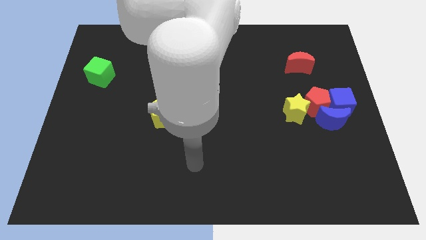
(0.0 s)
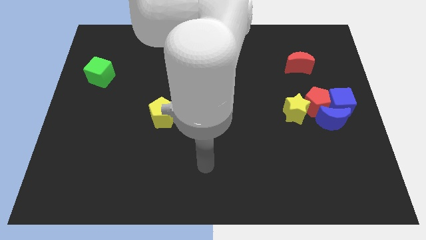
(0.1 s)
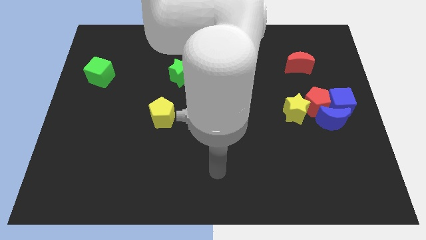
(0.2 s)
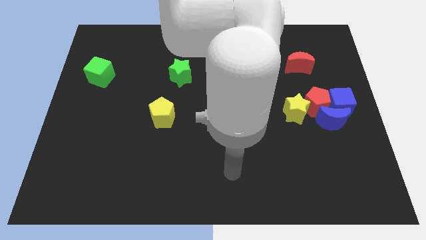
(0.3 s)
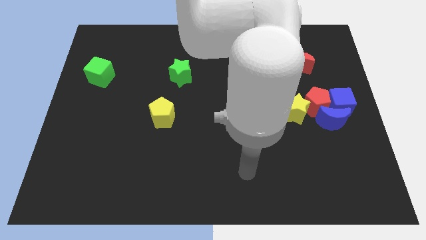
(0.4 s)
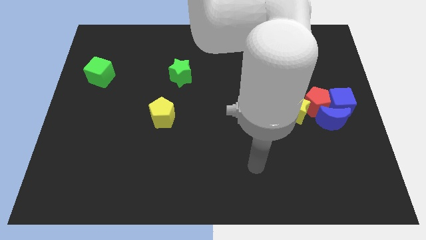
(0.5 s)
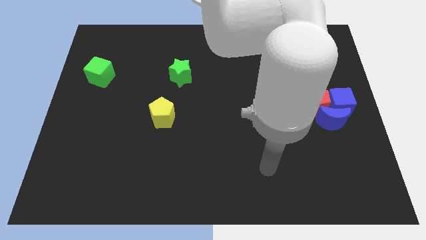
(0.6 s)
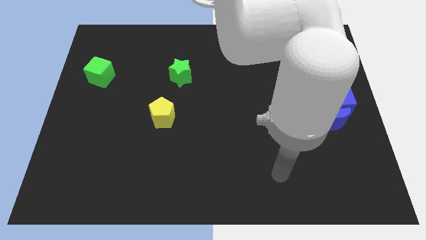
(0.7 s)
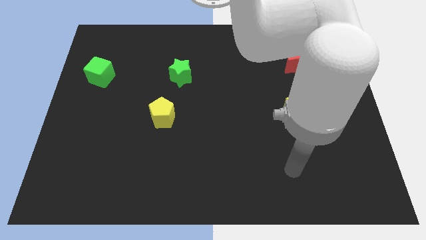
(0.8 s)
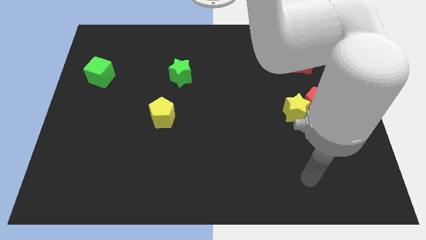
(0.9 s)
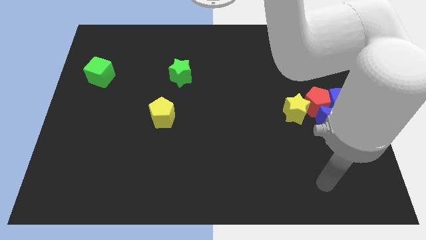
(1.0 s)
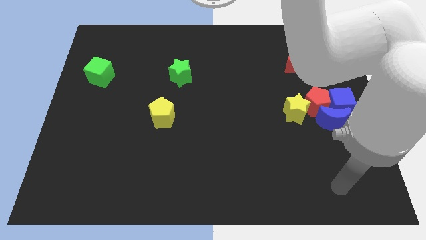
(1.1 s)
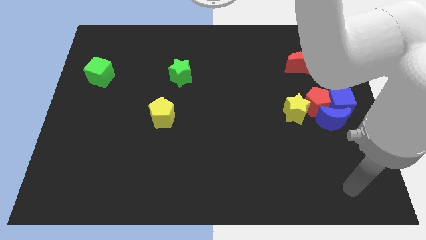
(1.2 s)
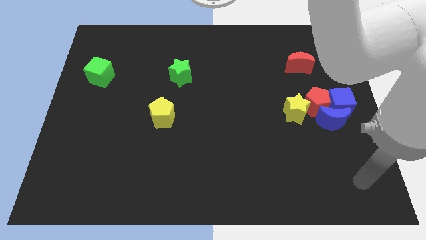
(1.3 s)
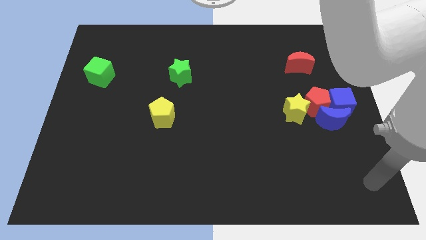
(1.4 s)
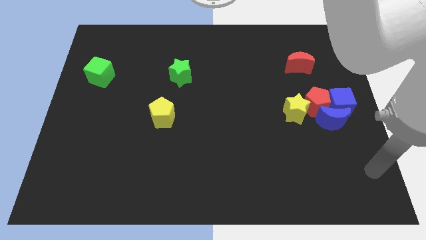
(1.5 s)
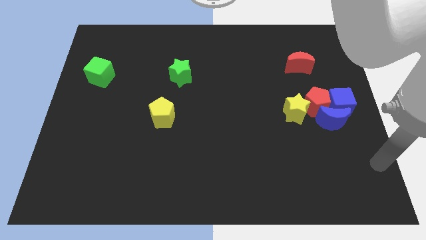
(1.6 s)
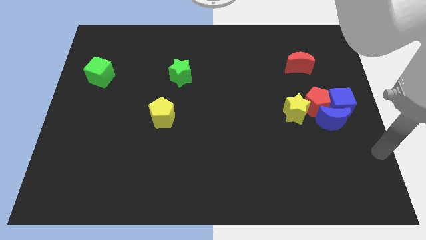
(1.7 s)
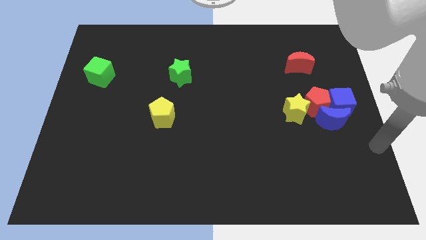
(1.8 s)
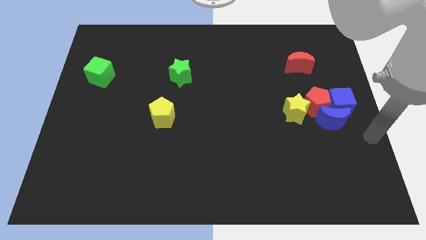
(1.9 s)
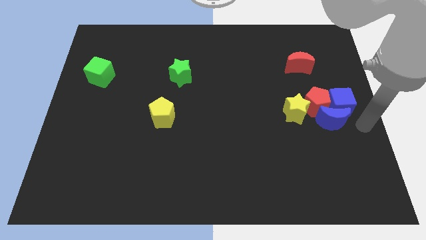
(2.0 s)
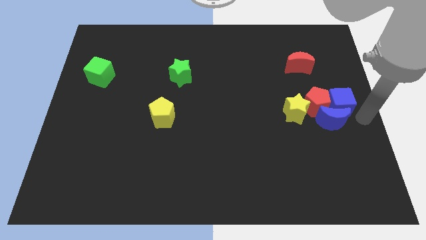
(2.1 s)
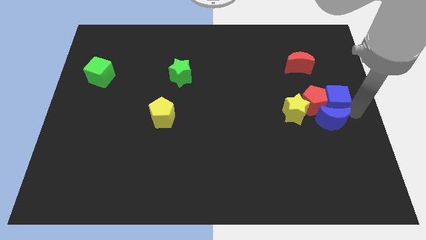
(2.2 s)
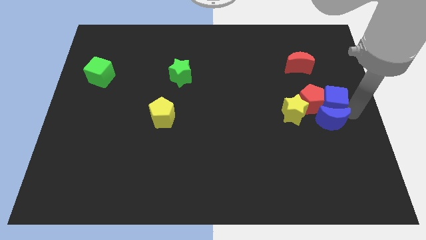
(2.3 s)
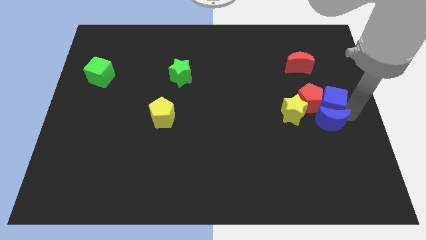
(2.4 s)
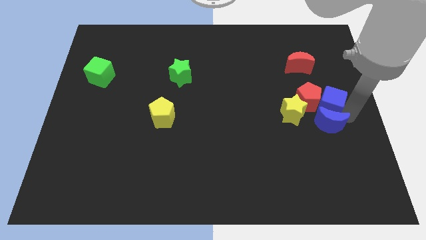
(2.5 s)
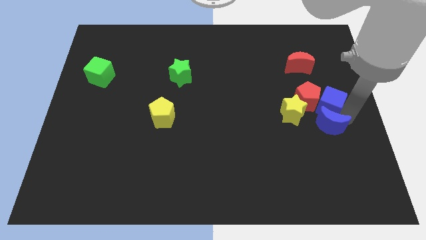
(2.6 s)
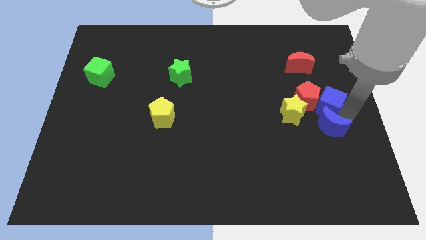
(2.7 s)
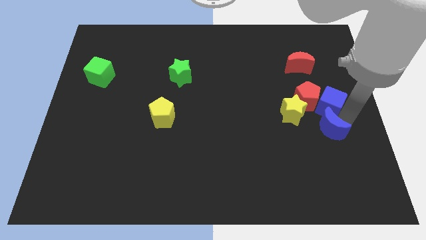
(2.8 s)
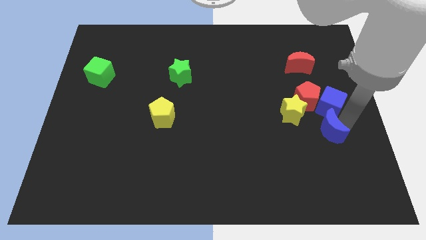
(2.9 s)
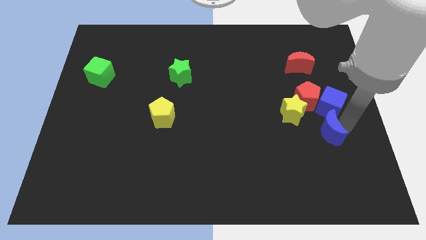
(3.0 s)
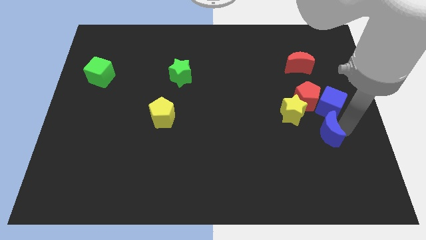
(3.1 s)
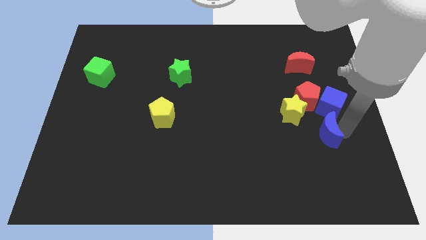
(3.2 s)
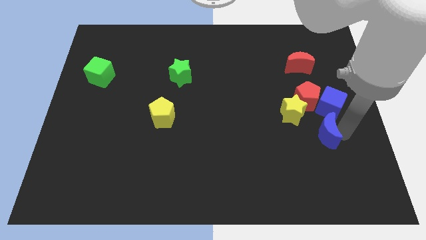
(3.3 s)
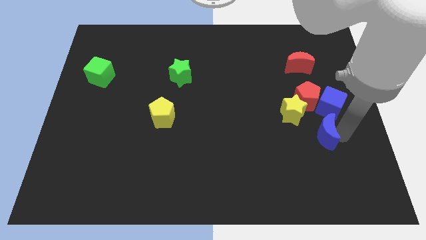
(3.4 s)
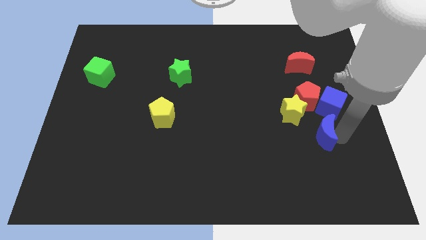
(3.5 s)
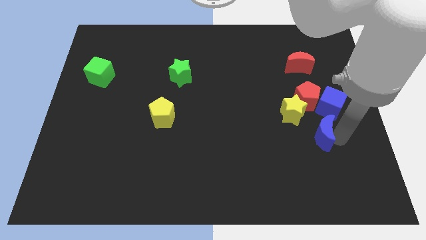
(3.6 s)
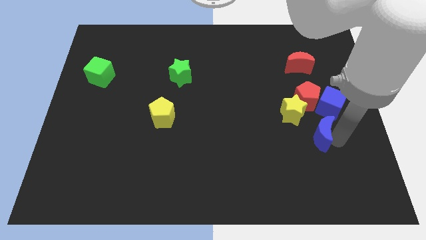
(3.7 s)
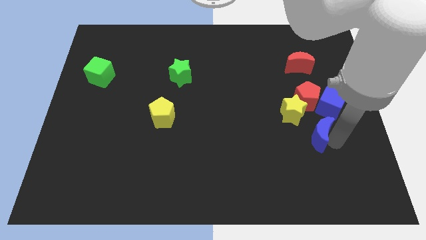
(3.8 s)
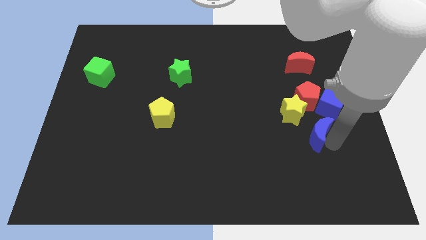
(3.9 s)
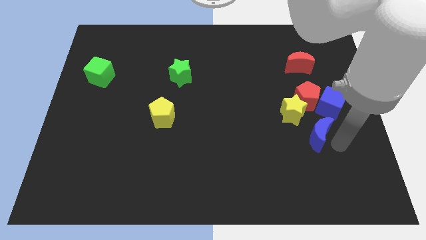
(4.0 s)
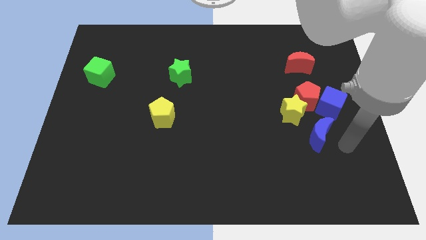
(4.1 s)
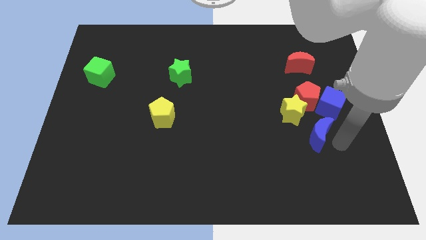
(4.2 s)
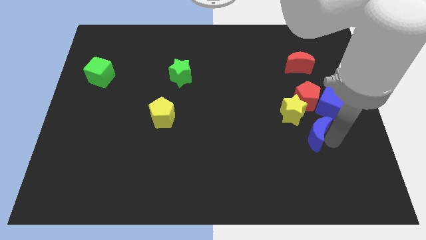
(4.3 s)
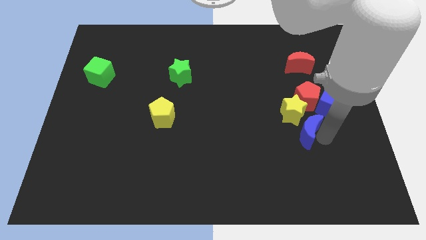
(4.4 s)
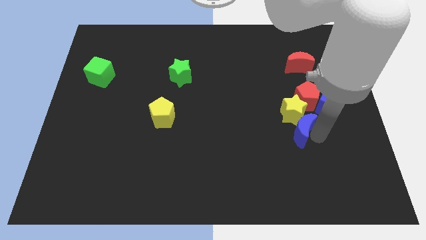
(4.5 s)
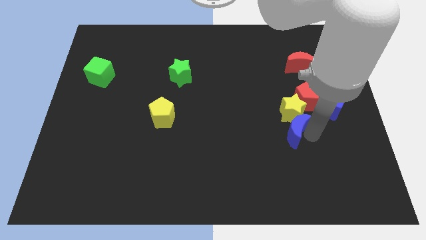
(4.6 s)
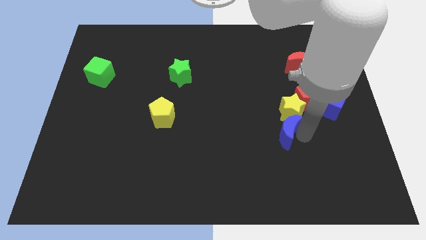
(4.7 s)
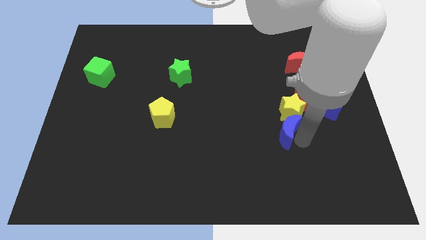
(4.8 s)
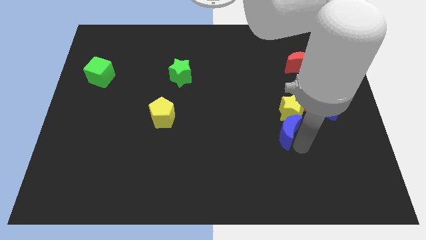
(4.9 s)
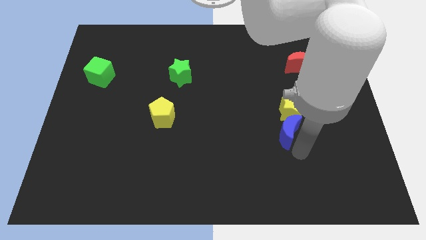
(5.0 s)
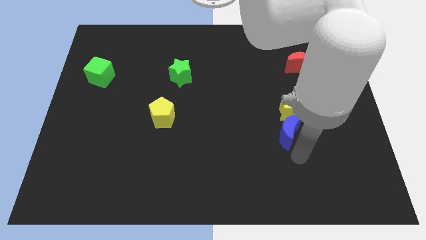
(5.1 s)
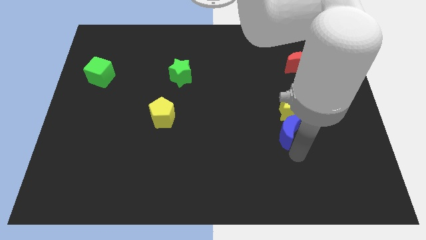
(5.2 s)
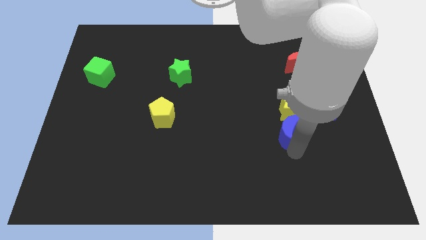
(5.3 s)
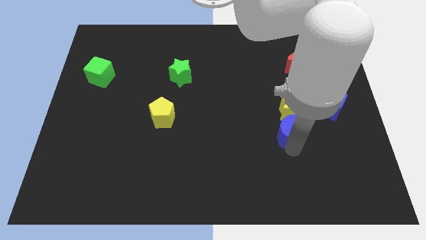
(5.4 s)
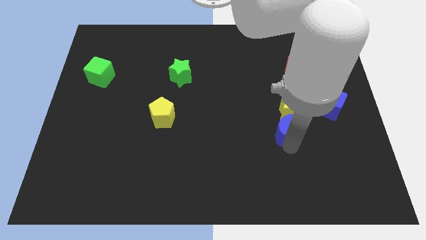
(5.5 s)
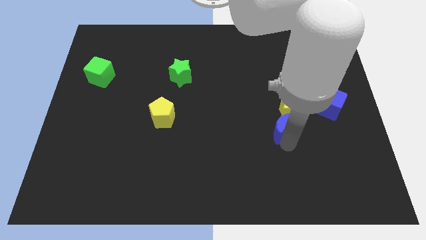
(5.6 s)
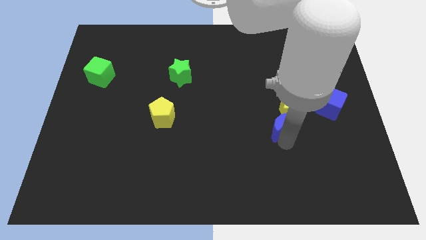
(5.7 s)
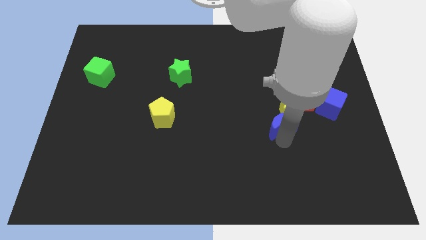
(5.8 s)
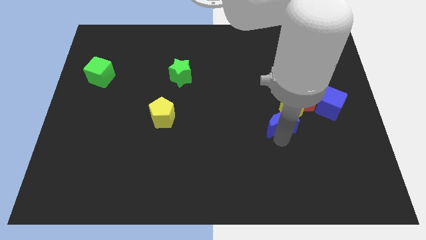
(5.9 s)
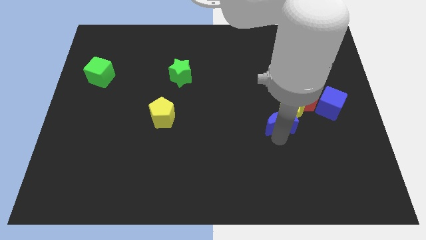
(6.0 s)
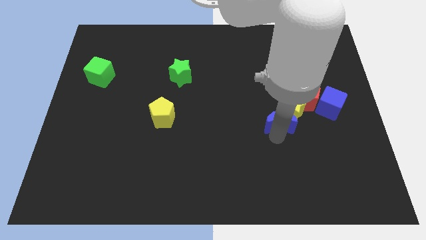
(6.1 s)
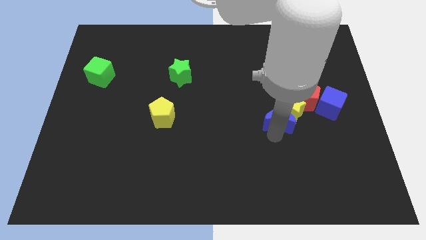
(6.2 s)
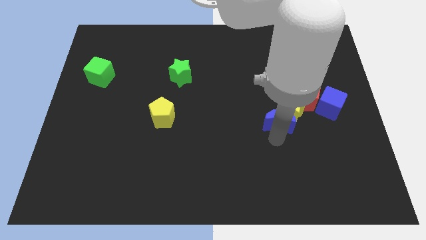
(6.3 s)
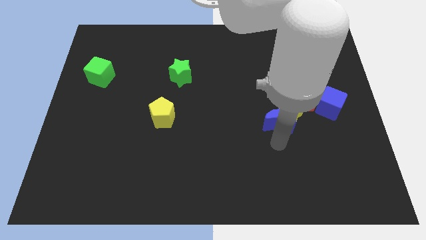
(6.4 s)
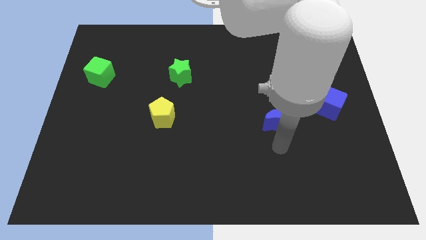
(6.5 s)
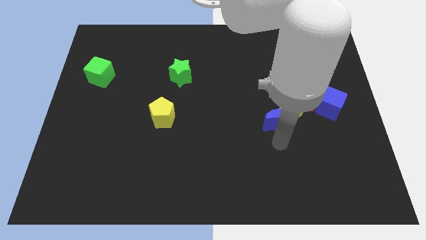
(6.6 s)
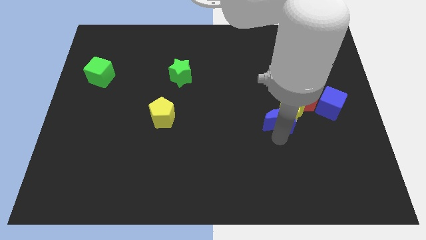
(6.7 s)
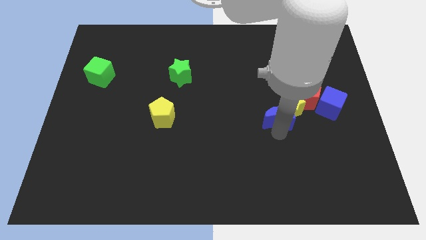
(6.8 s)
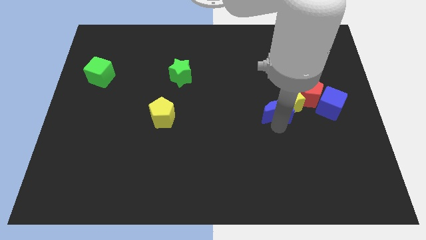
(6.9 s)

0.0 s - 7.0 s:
slide the blue moon diagonally upwards and to the left slightly

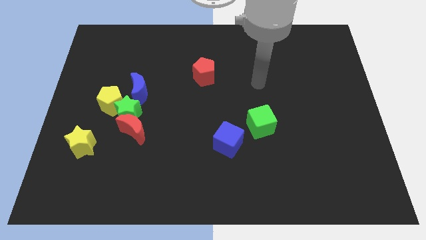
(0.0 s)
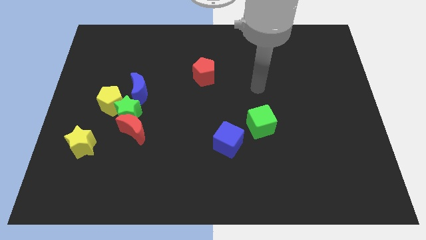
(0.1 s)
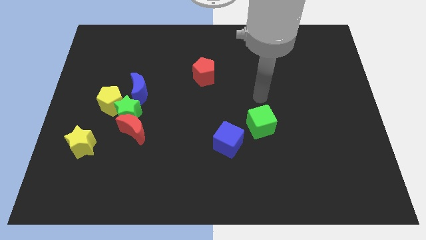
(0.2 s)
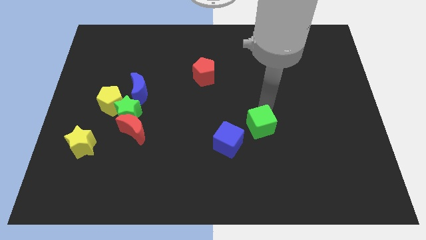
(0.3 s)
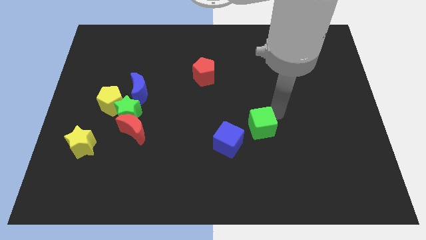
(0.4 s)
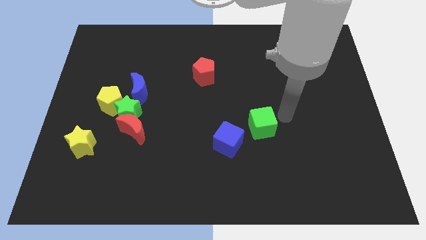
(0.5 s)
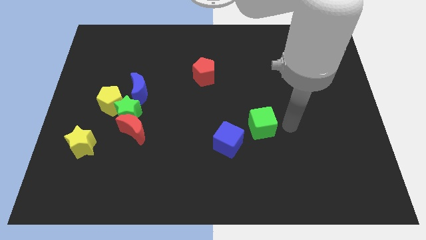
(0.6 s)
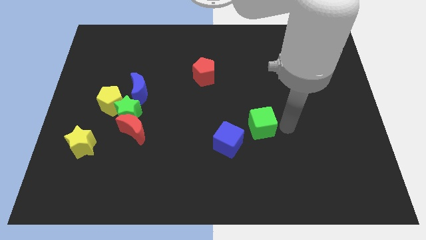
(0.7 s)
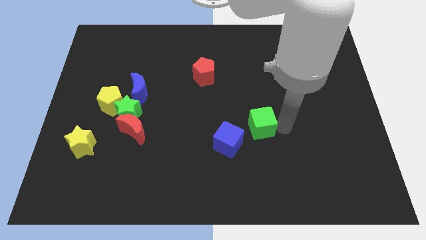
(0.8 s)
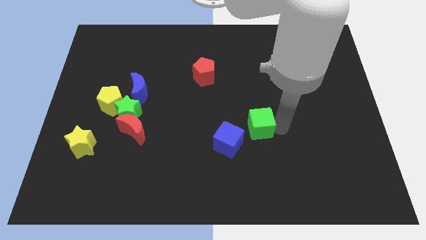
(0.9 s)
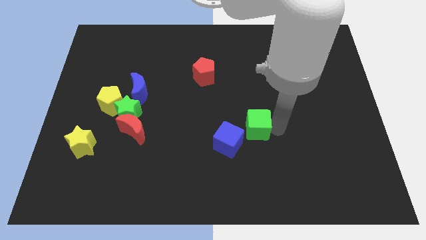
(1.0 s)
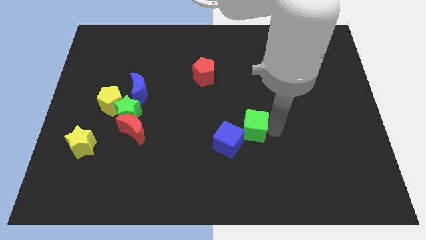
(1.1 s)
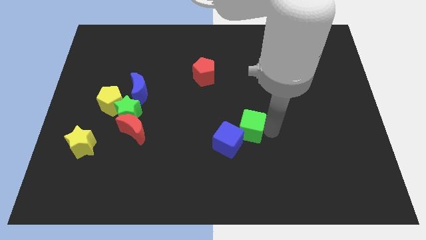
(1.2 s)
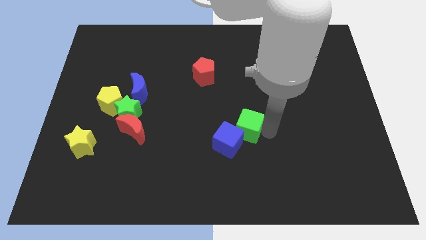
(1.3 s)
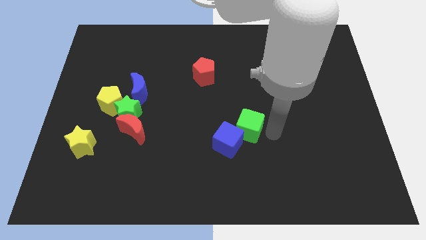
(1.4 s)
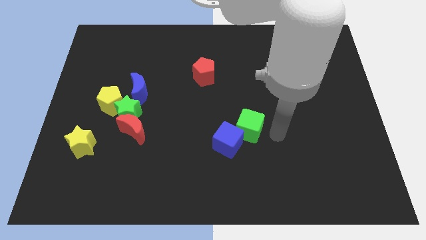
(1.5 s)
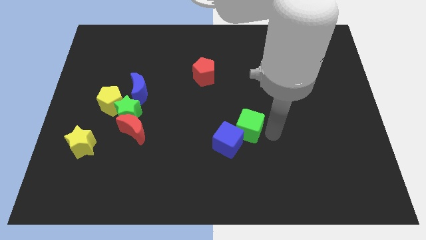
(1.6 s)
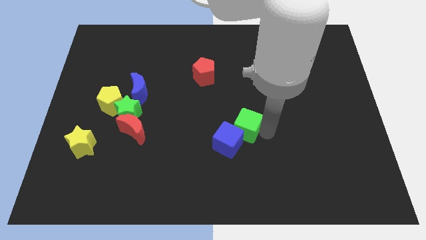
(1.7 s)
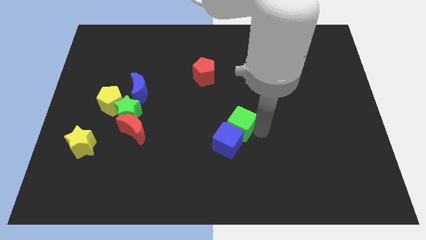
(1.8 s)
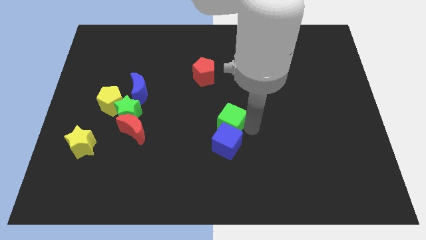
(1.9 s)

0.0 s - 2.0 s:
push the green cube left a little
